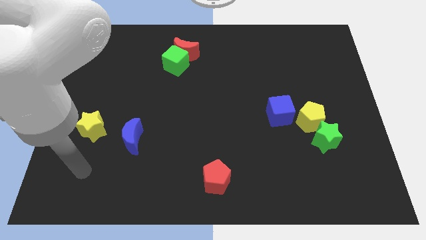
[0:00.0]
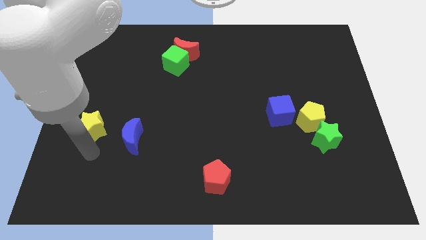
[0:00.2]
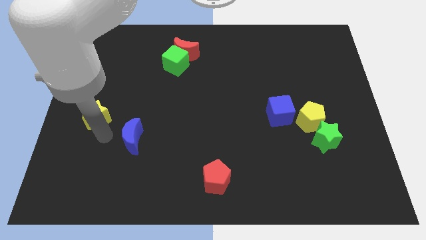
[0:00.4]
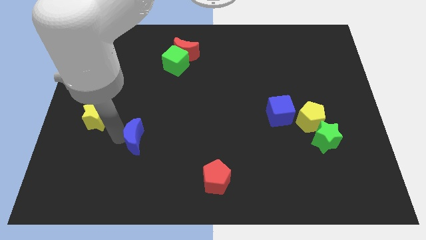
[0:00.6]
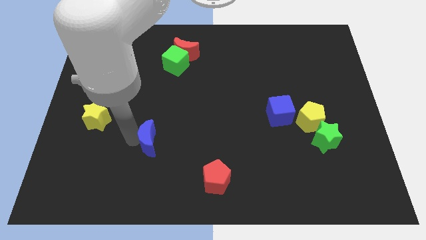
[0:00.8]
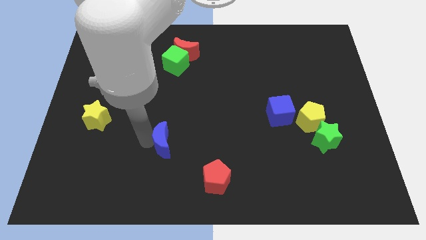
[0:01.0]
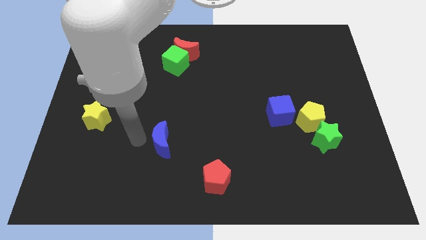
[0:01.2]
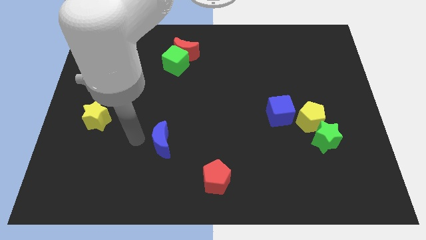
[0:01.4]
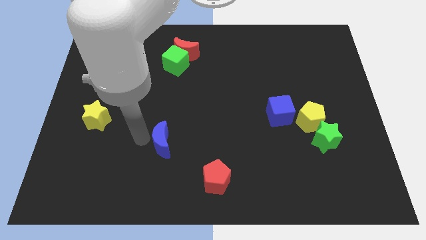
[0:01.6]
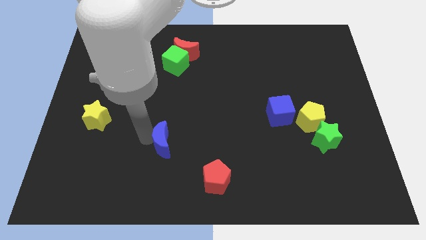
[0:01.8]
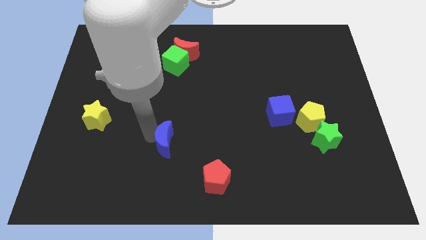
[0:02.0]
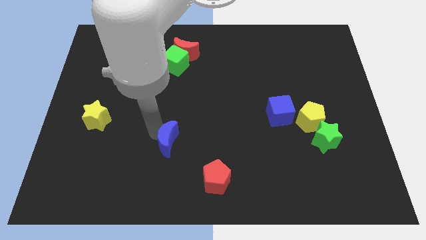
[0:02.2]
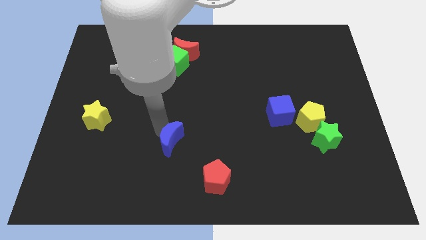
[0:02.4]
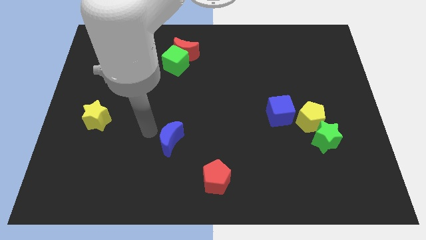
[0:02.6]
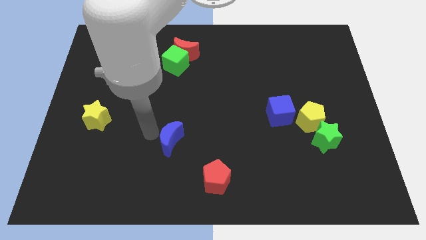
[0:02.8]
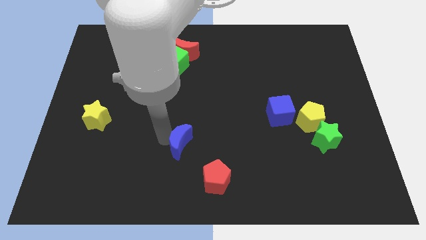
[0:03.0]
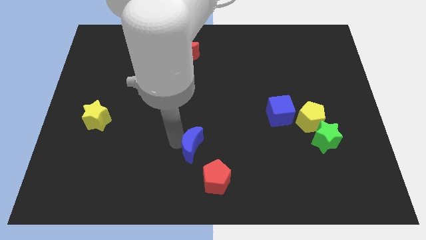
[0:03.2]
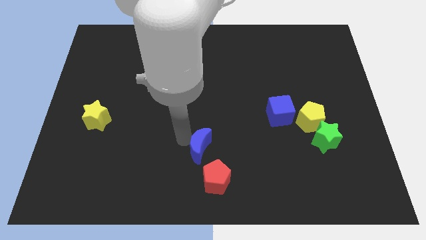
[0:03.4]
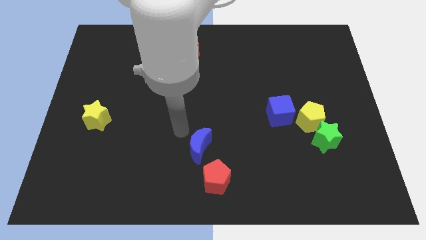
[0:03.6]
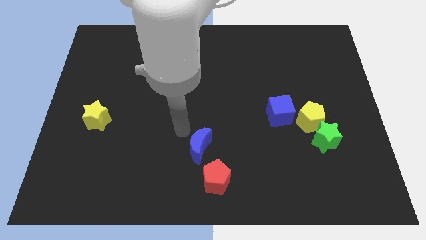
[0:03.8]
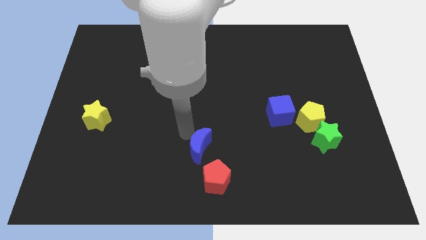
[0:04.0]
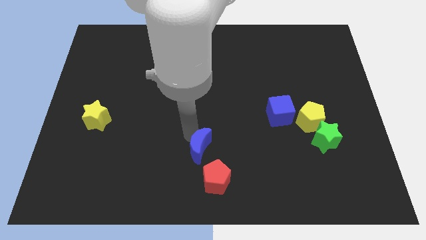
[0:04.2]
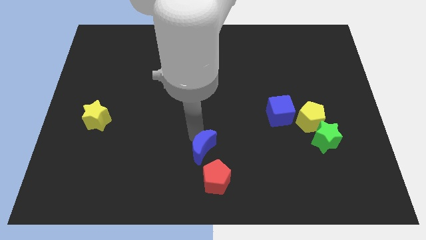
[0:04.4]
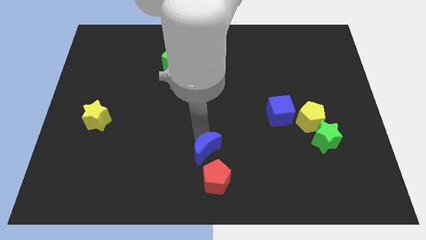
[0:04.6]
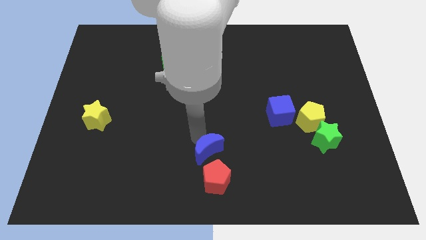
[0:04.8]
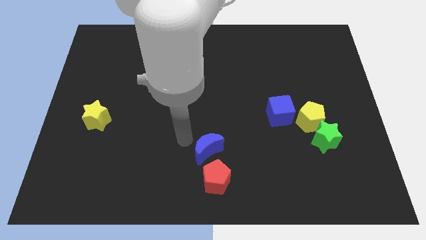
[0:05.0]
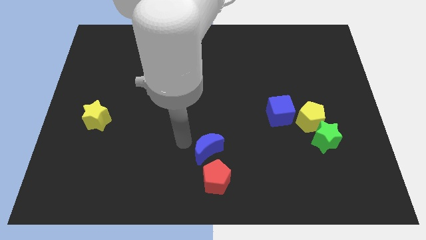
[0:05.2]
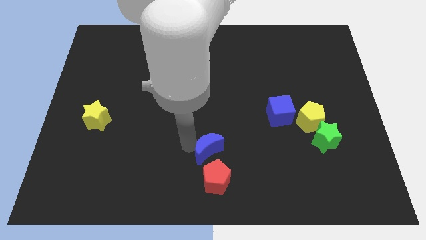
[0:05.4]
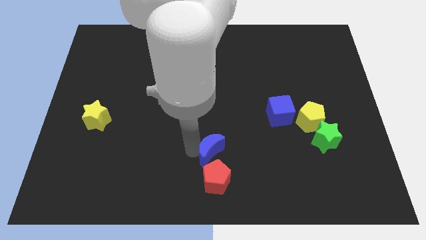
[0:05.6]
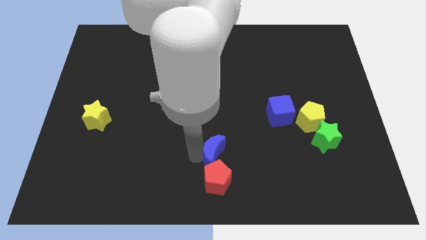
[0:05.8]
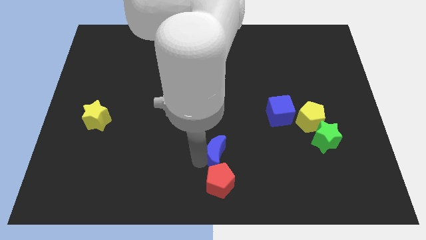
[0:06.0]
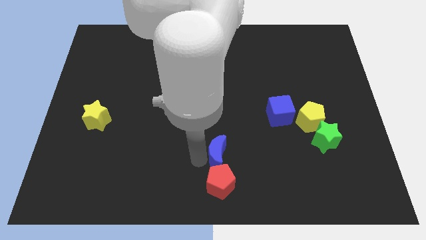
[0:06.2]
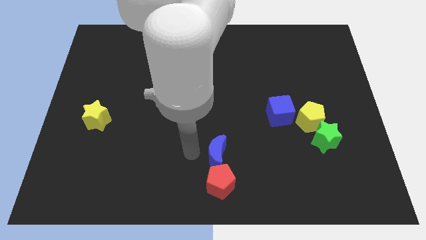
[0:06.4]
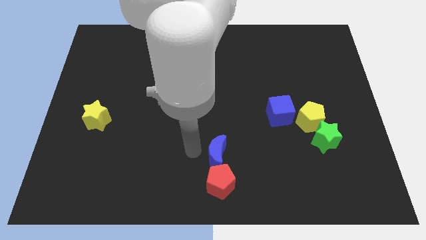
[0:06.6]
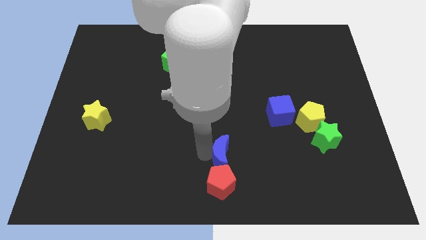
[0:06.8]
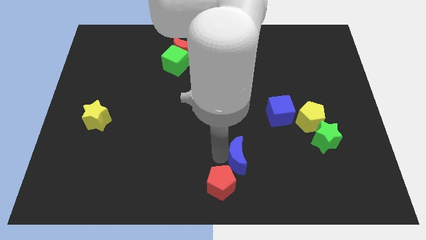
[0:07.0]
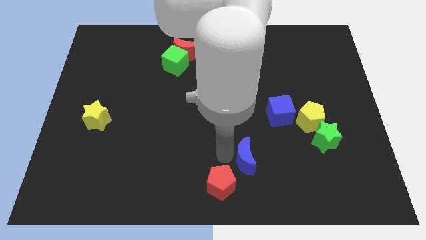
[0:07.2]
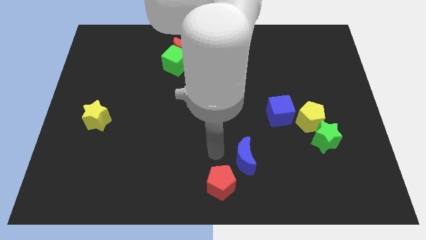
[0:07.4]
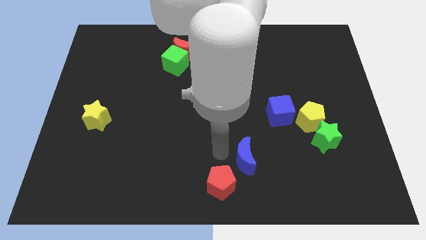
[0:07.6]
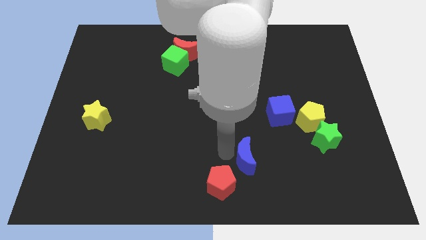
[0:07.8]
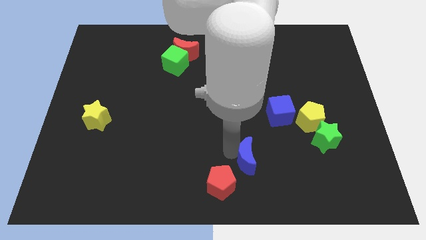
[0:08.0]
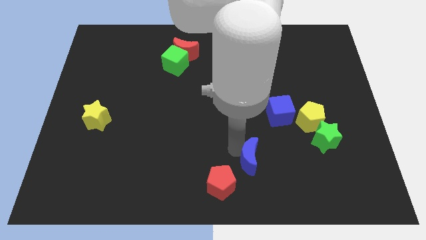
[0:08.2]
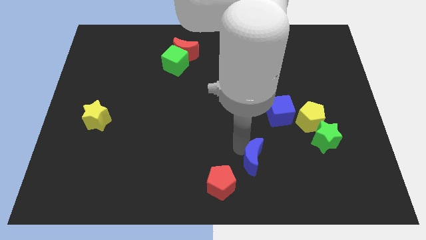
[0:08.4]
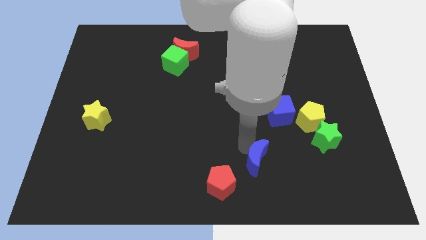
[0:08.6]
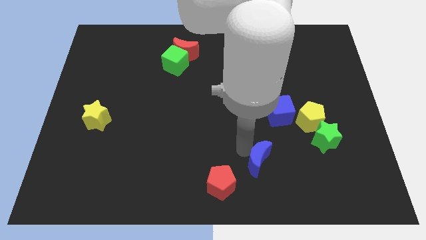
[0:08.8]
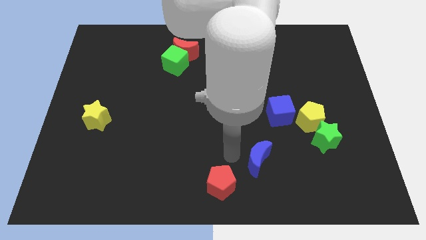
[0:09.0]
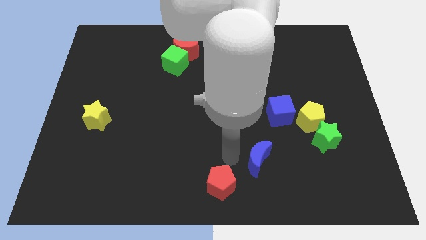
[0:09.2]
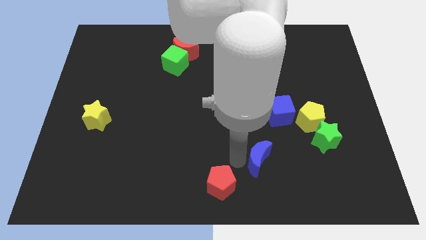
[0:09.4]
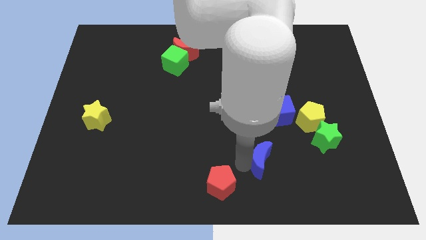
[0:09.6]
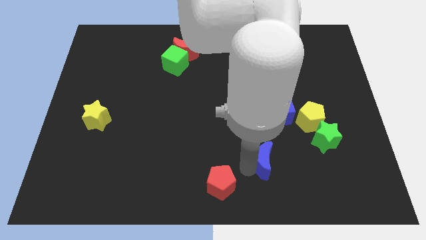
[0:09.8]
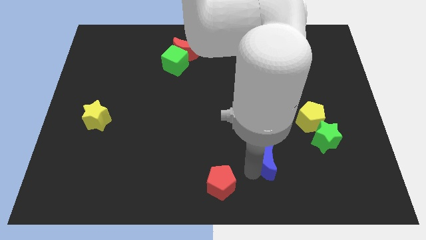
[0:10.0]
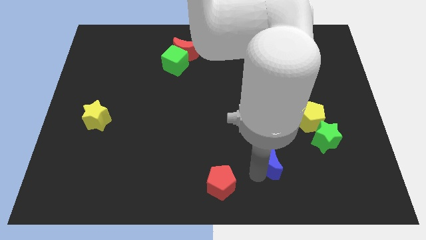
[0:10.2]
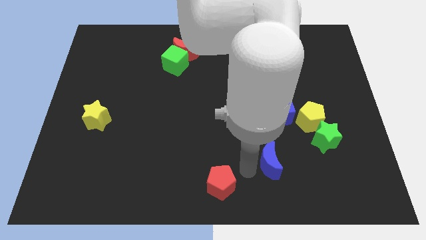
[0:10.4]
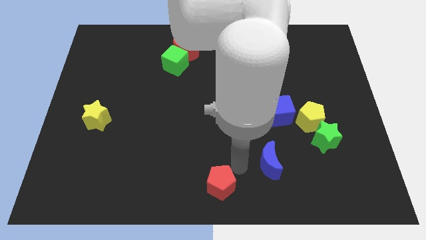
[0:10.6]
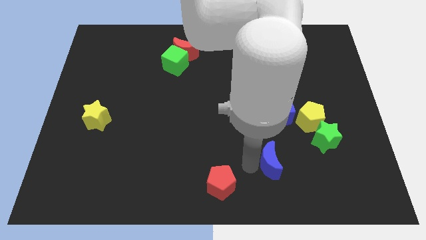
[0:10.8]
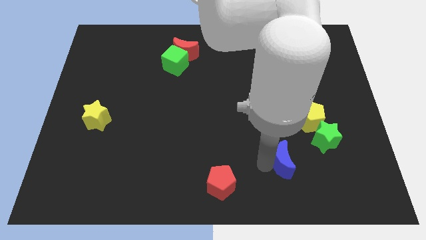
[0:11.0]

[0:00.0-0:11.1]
slide the blue moon diagonally down and to the left of the green star
